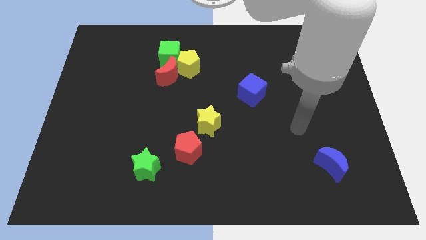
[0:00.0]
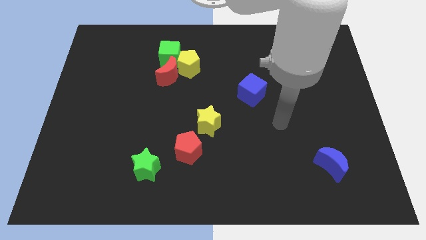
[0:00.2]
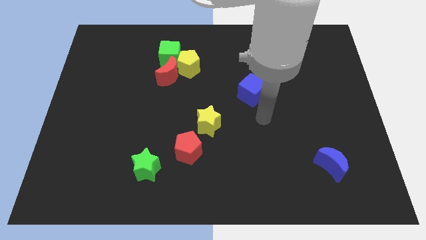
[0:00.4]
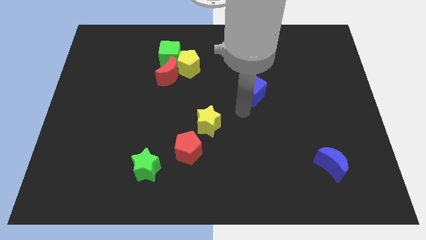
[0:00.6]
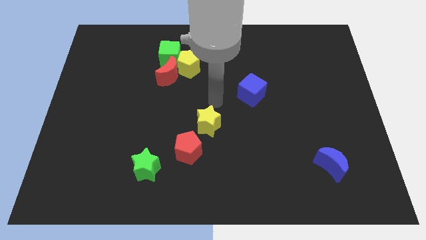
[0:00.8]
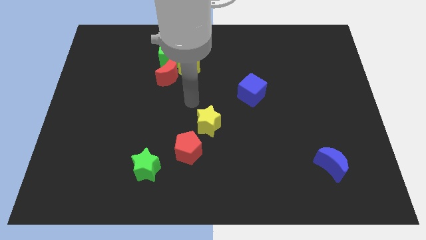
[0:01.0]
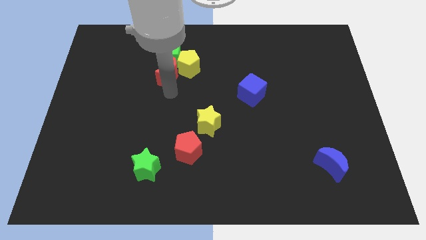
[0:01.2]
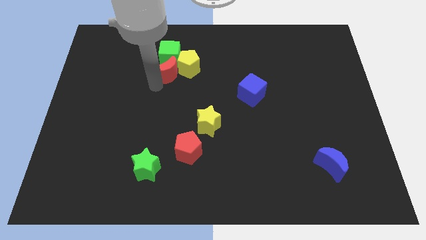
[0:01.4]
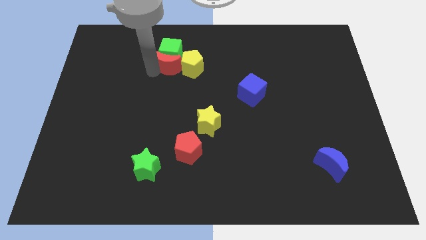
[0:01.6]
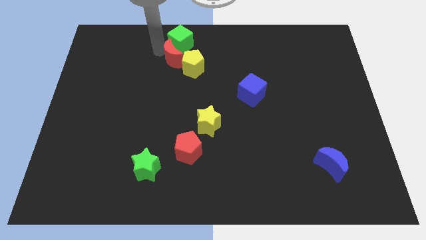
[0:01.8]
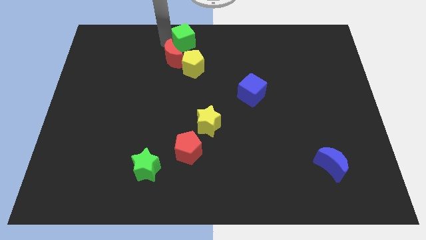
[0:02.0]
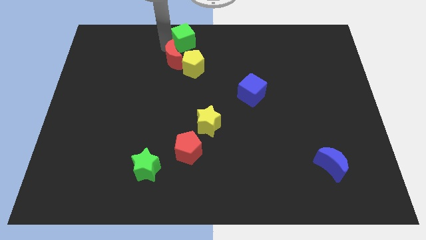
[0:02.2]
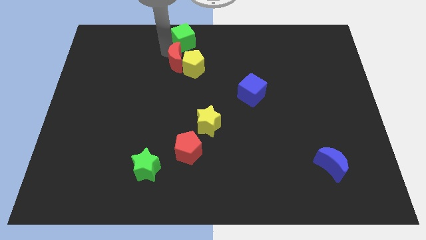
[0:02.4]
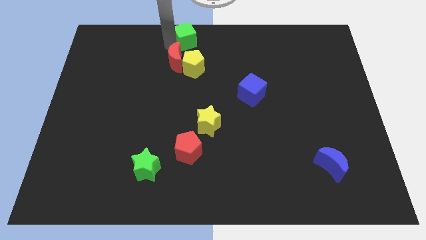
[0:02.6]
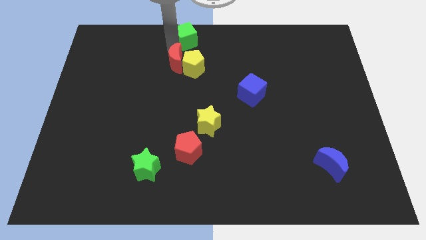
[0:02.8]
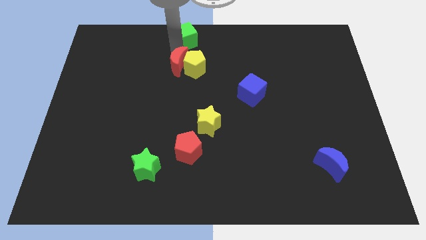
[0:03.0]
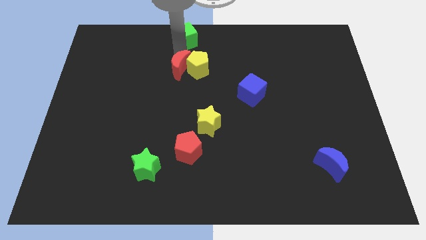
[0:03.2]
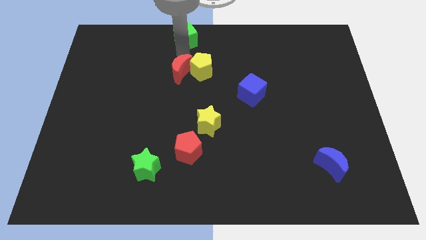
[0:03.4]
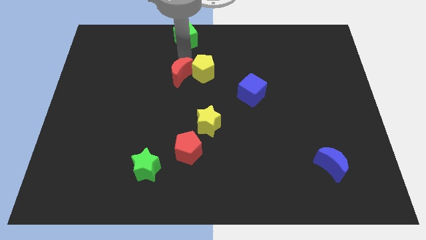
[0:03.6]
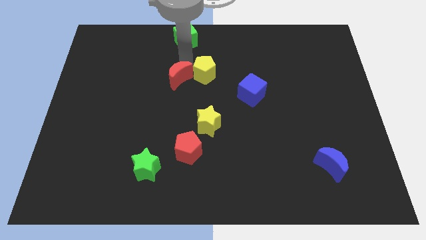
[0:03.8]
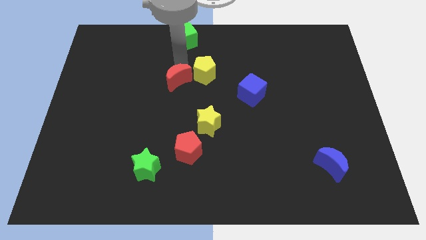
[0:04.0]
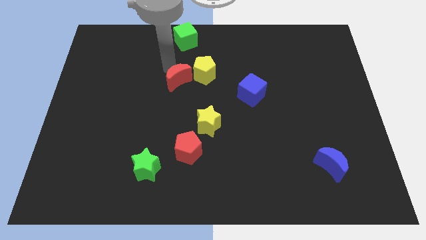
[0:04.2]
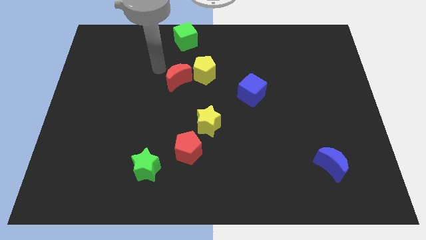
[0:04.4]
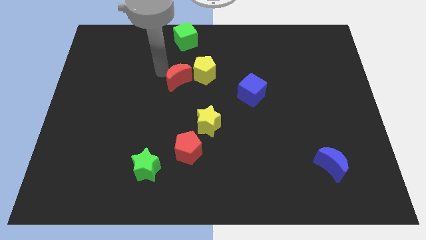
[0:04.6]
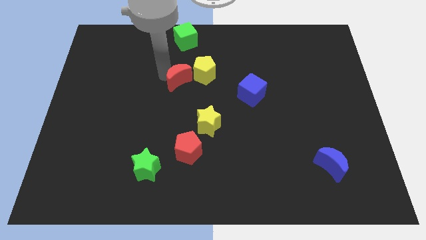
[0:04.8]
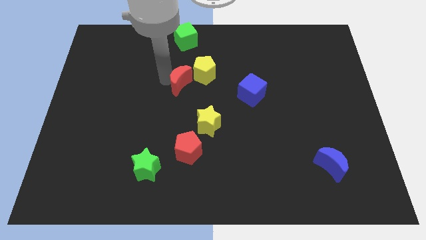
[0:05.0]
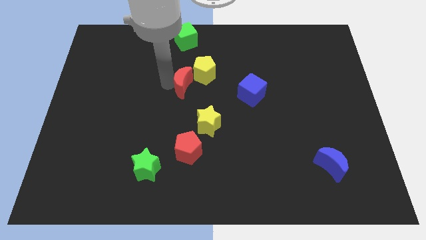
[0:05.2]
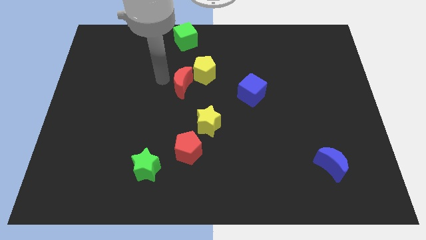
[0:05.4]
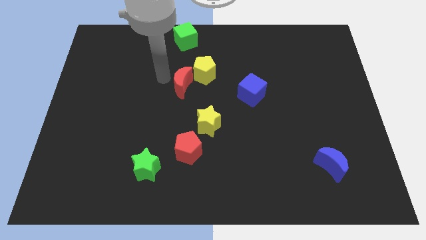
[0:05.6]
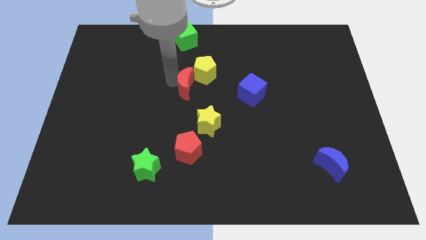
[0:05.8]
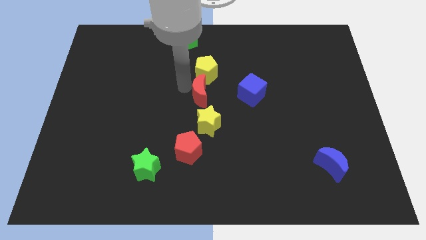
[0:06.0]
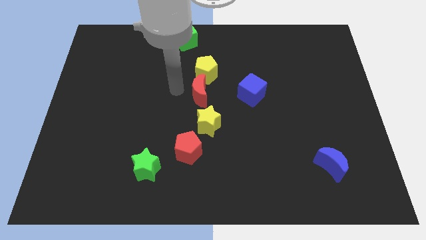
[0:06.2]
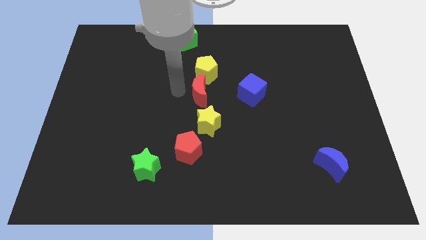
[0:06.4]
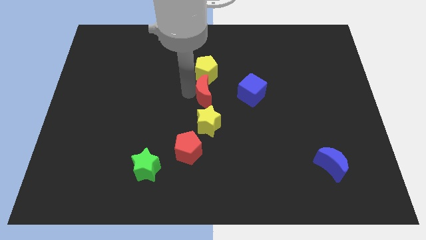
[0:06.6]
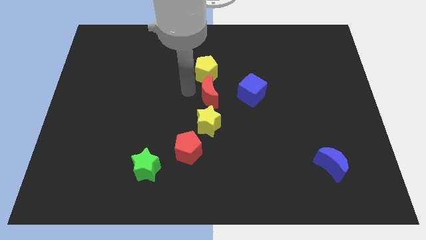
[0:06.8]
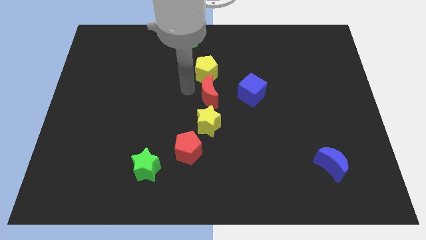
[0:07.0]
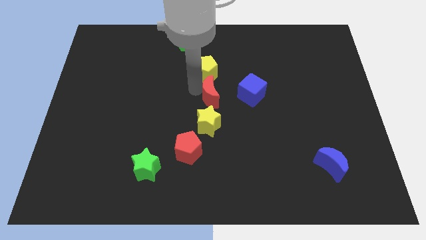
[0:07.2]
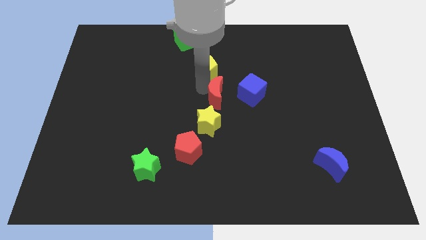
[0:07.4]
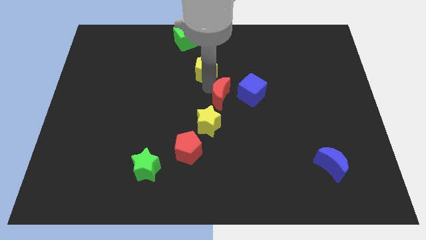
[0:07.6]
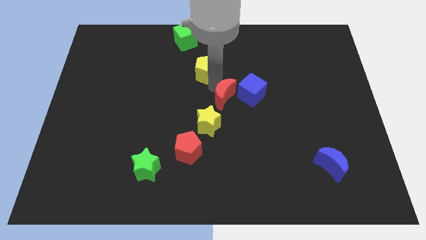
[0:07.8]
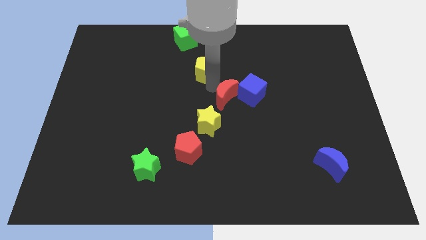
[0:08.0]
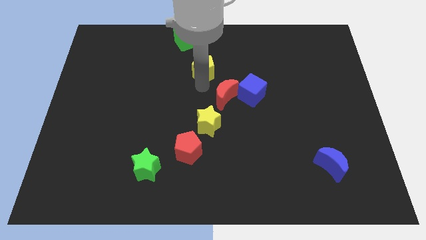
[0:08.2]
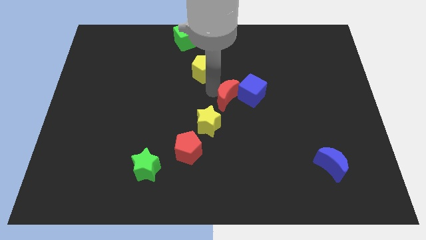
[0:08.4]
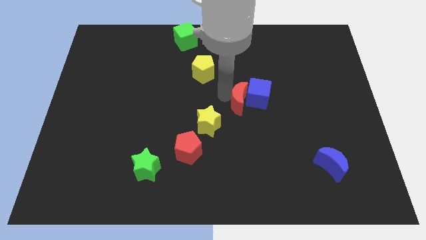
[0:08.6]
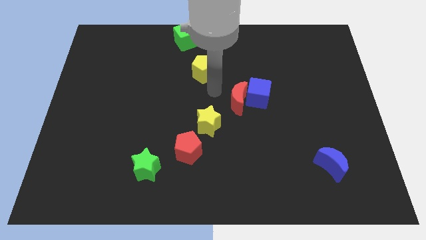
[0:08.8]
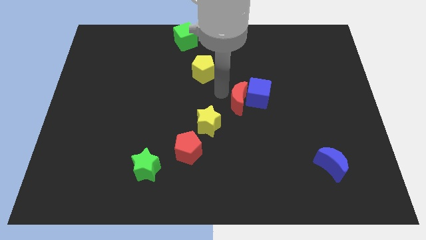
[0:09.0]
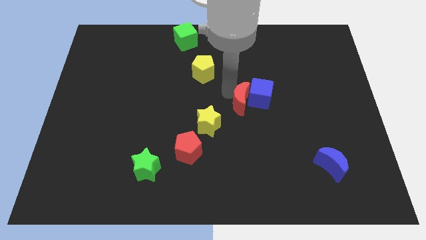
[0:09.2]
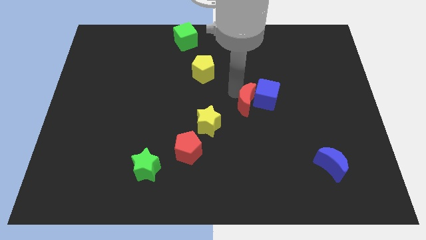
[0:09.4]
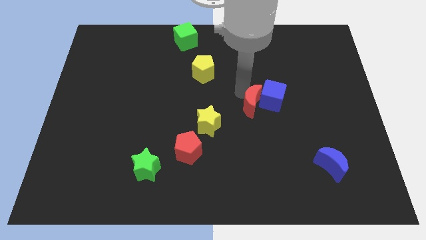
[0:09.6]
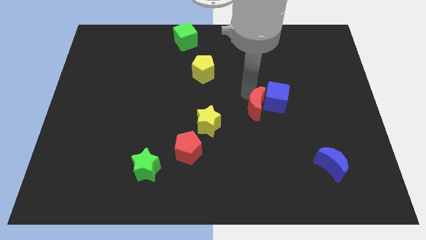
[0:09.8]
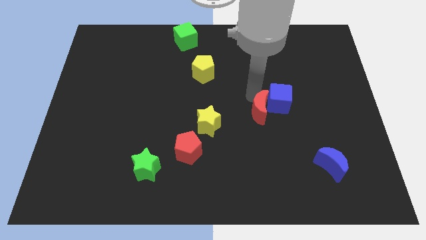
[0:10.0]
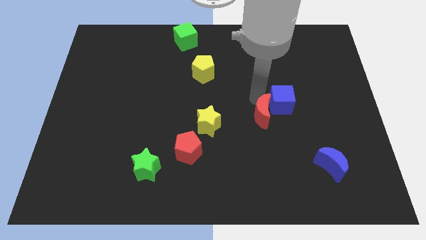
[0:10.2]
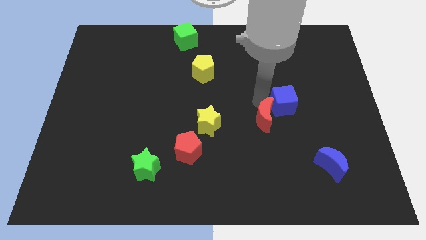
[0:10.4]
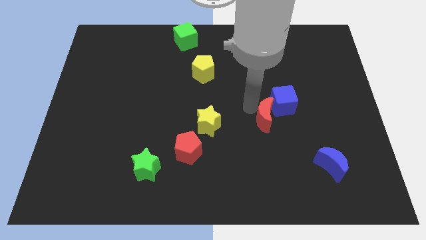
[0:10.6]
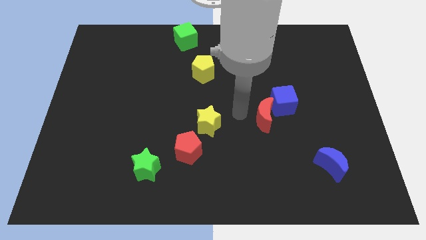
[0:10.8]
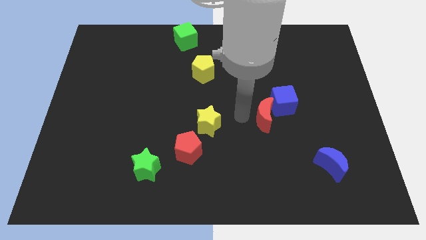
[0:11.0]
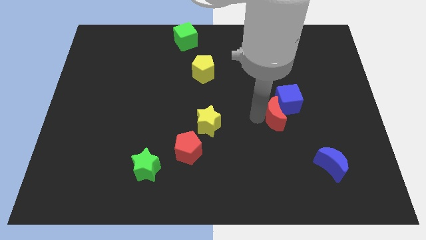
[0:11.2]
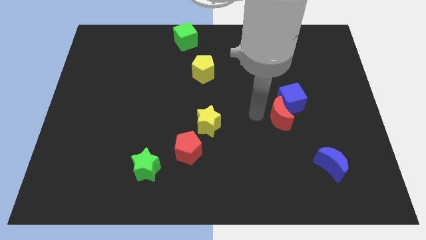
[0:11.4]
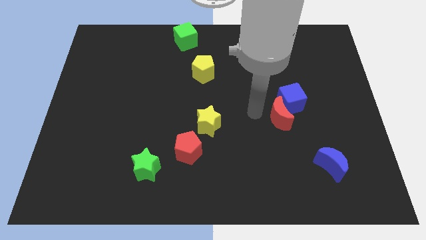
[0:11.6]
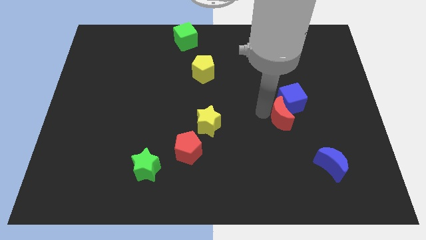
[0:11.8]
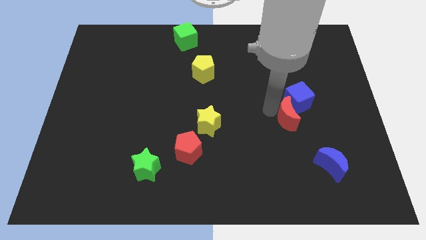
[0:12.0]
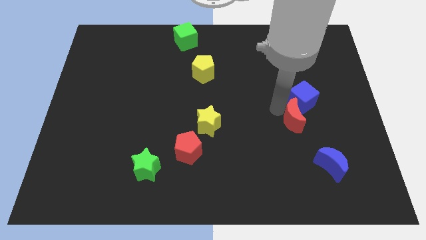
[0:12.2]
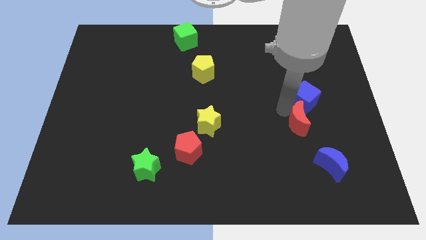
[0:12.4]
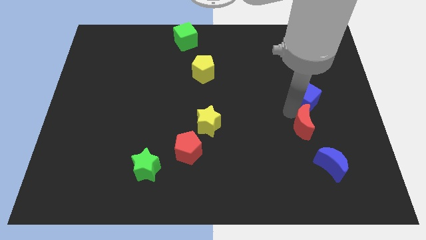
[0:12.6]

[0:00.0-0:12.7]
push the red moon to the top side of the blue moon

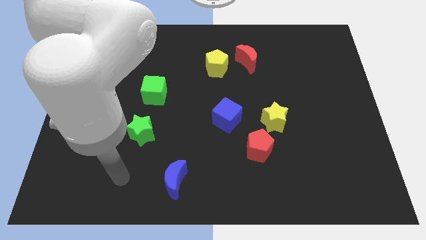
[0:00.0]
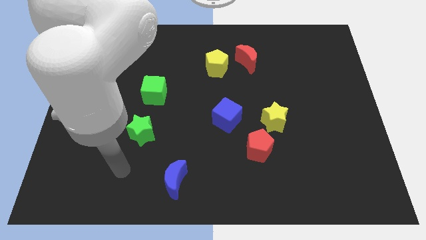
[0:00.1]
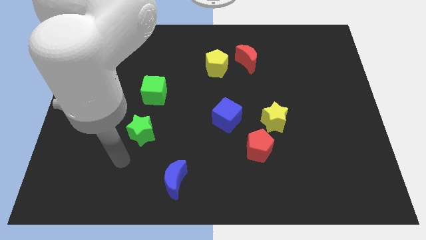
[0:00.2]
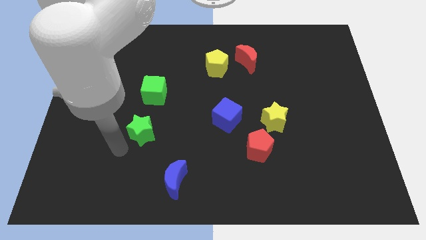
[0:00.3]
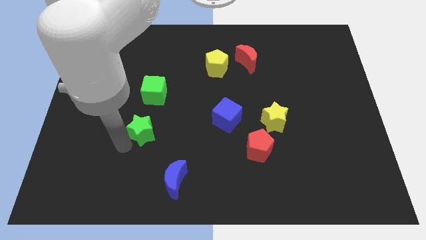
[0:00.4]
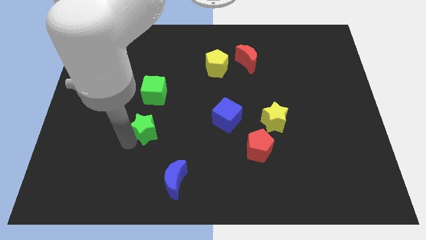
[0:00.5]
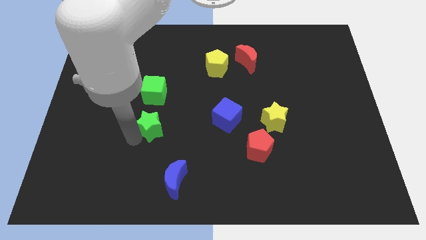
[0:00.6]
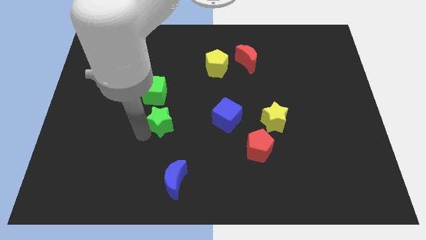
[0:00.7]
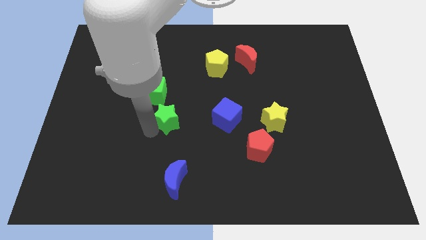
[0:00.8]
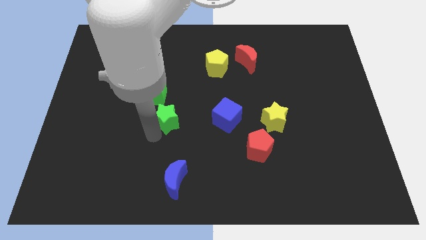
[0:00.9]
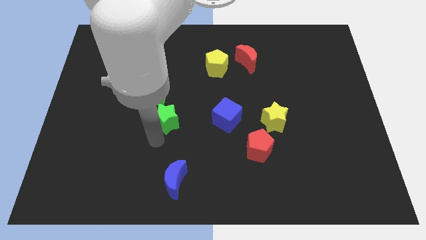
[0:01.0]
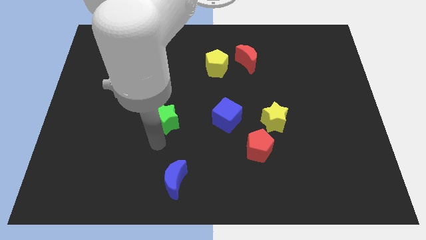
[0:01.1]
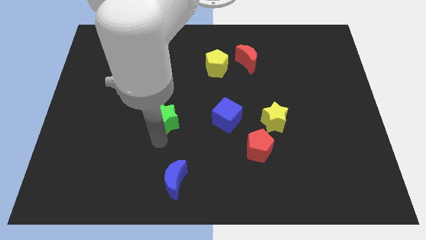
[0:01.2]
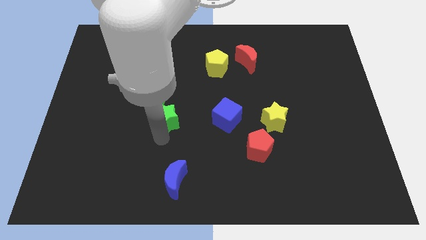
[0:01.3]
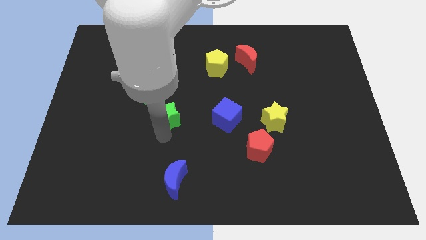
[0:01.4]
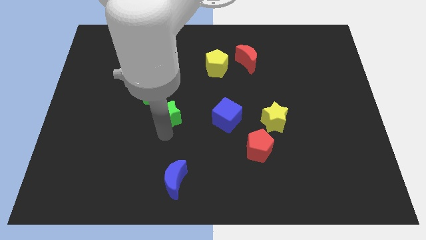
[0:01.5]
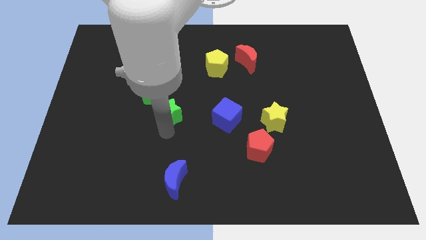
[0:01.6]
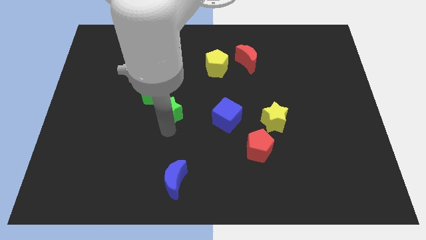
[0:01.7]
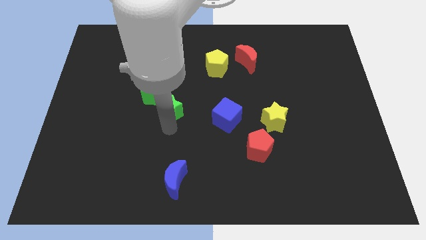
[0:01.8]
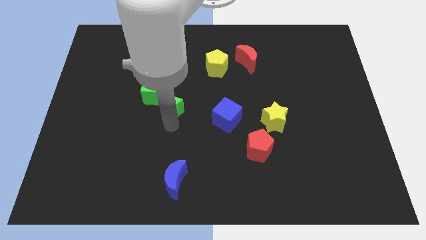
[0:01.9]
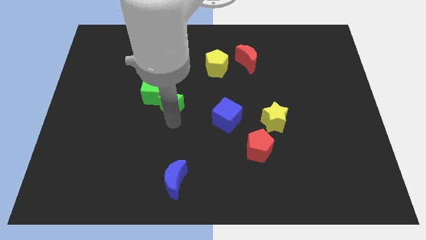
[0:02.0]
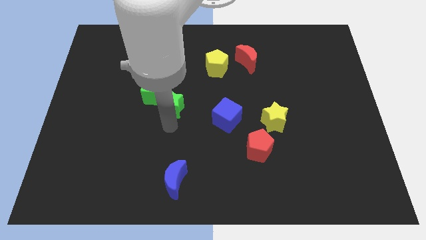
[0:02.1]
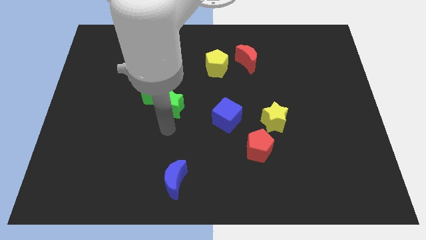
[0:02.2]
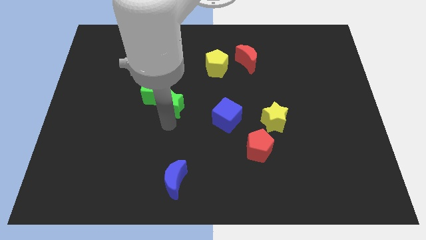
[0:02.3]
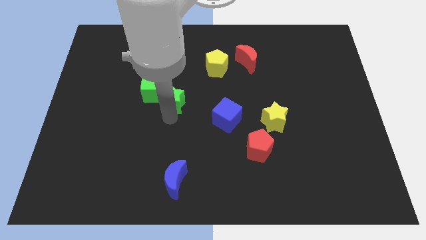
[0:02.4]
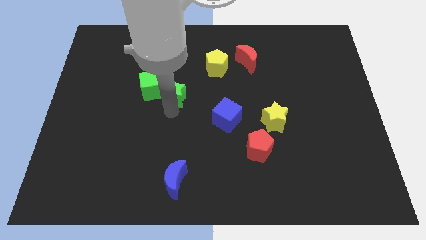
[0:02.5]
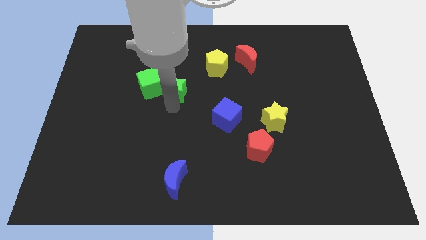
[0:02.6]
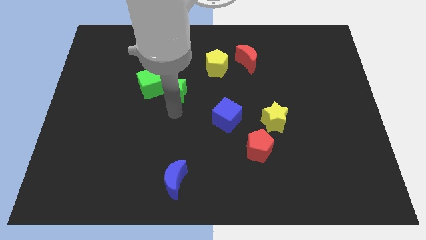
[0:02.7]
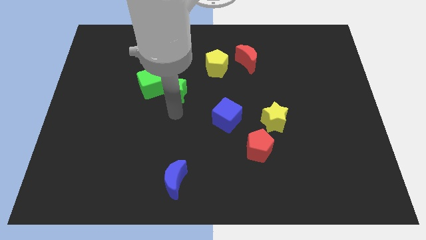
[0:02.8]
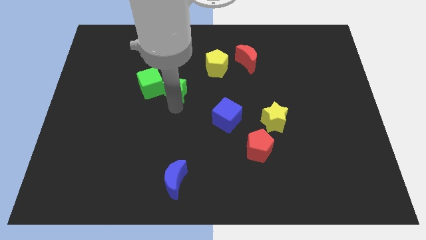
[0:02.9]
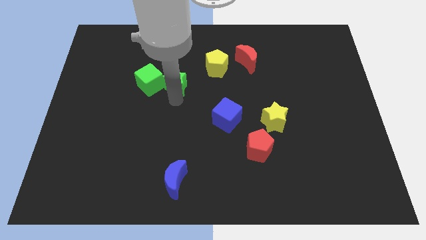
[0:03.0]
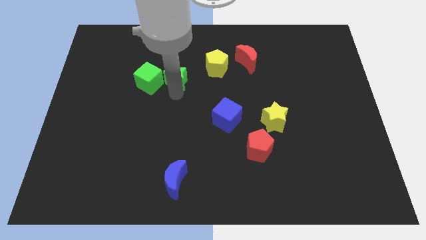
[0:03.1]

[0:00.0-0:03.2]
put the green star left of the yellow pentagon
